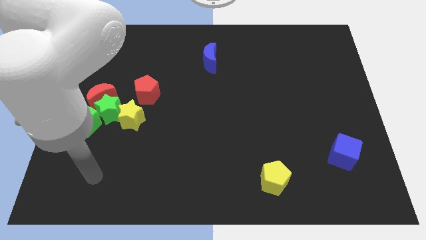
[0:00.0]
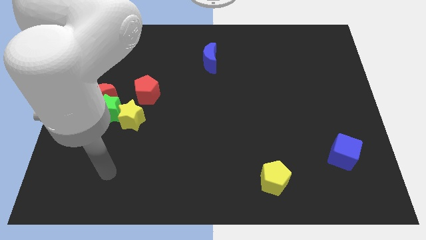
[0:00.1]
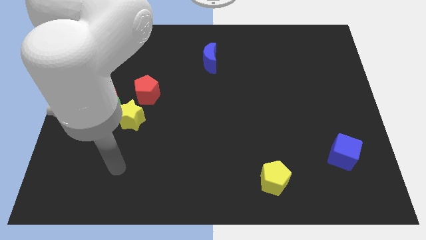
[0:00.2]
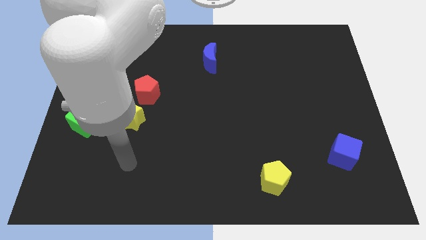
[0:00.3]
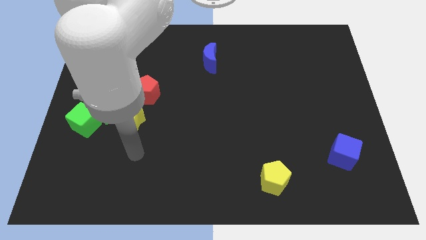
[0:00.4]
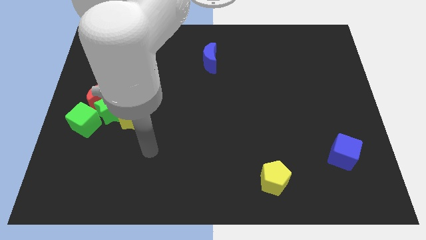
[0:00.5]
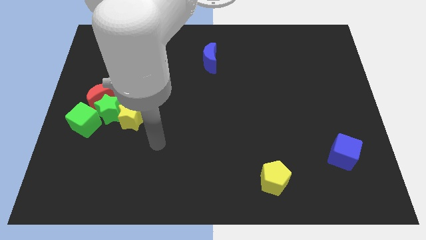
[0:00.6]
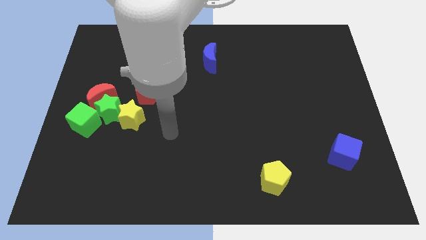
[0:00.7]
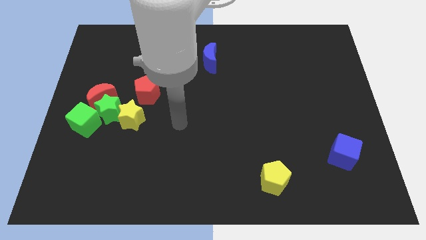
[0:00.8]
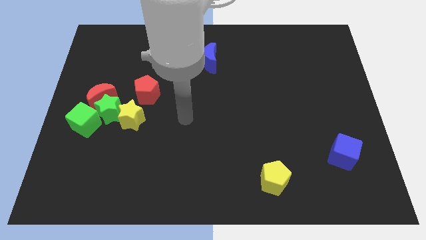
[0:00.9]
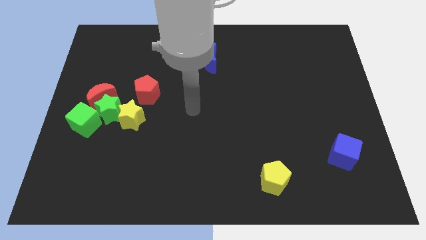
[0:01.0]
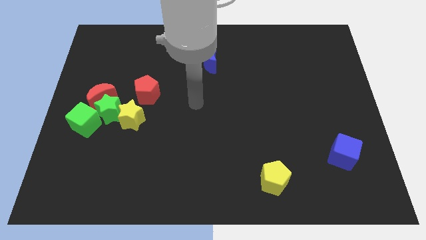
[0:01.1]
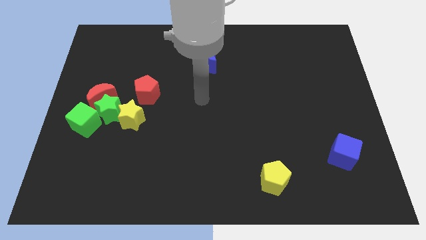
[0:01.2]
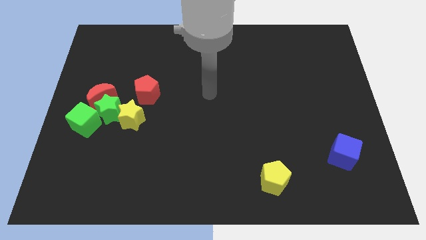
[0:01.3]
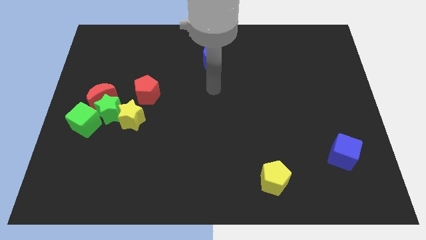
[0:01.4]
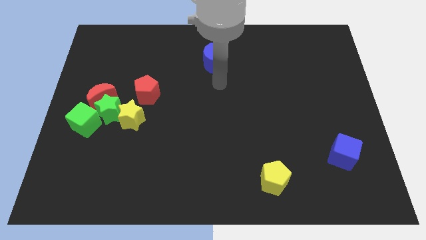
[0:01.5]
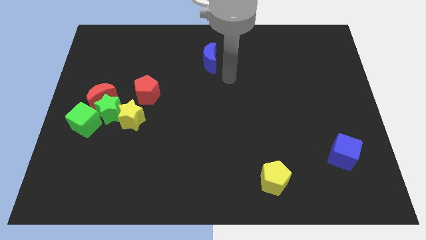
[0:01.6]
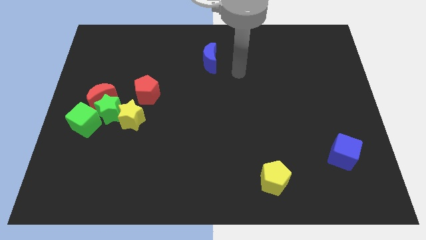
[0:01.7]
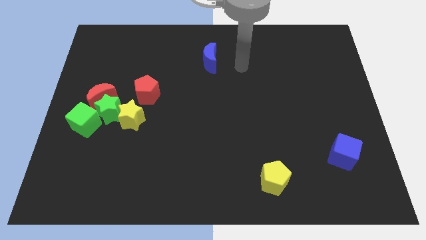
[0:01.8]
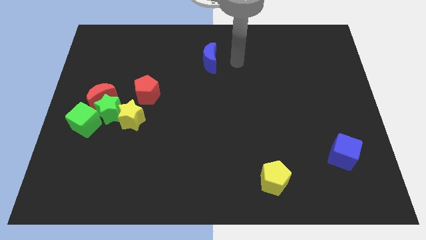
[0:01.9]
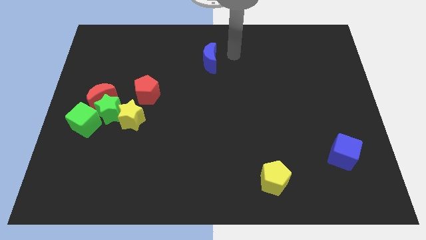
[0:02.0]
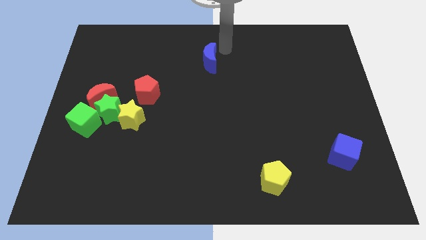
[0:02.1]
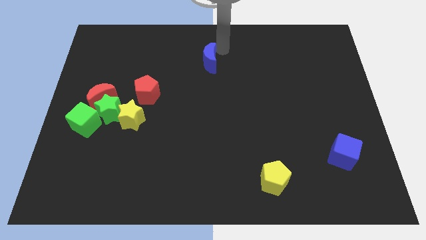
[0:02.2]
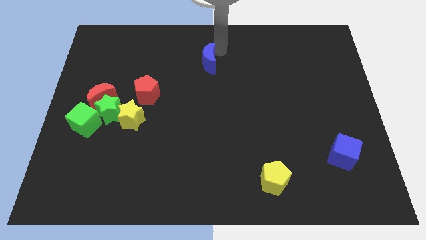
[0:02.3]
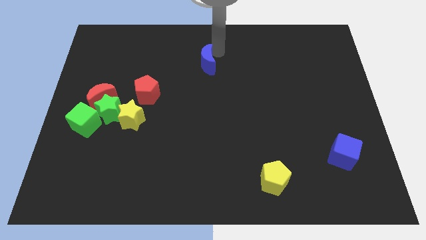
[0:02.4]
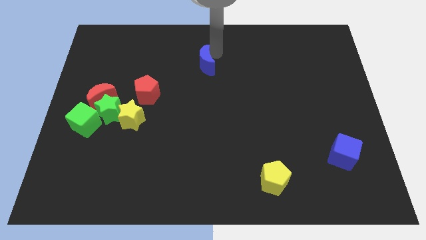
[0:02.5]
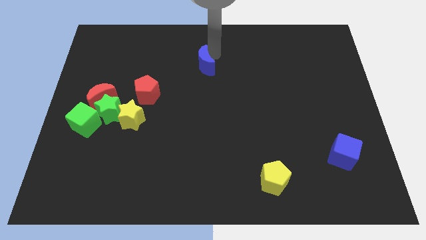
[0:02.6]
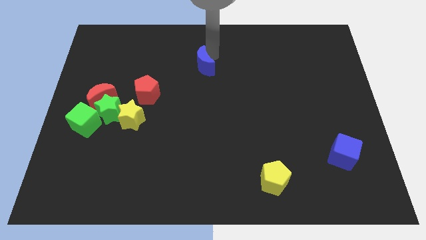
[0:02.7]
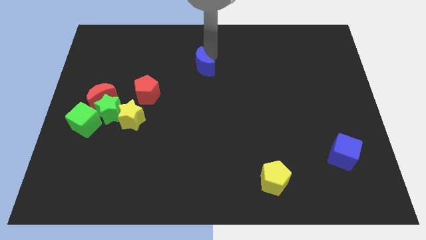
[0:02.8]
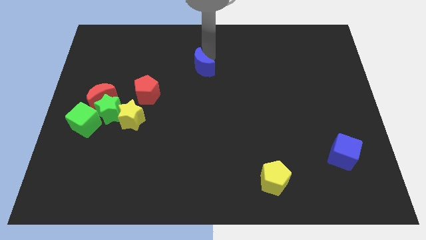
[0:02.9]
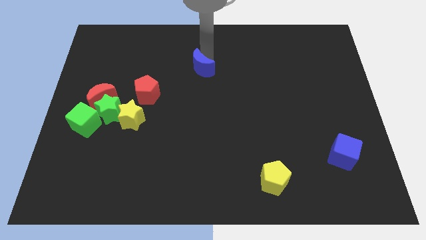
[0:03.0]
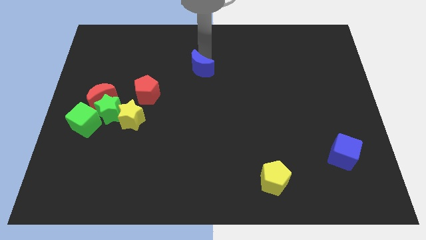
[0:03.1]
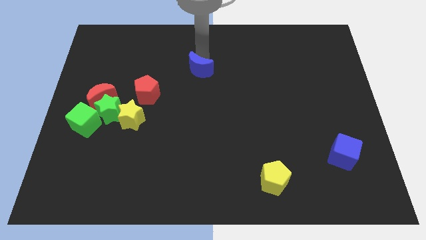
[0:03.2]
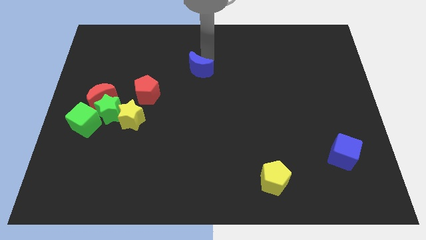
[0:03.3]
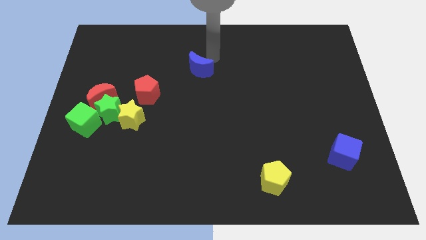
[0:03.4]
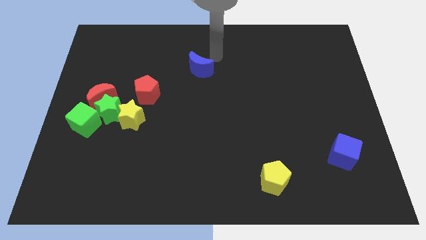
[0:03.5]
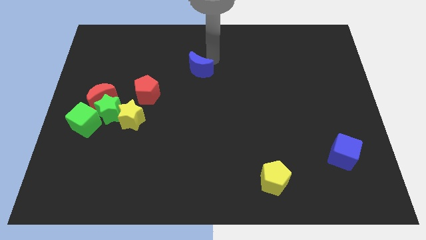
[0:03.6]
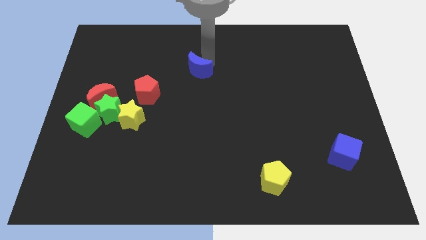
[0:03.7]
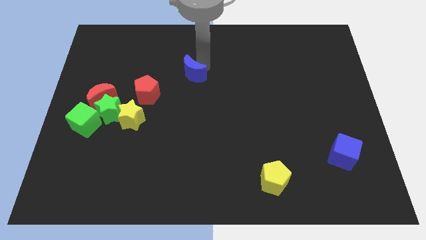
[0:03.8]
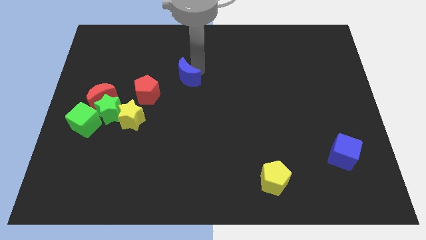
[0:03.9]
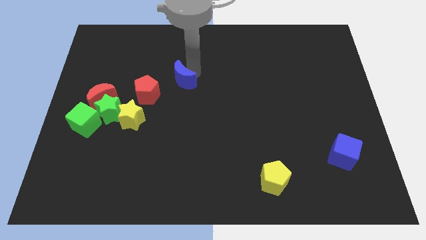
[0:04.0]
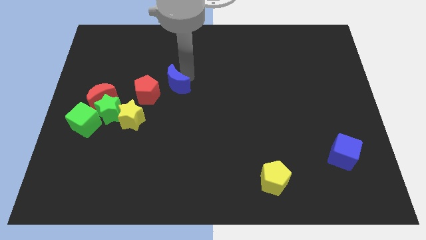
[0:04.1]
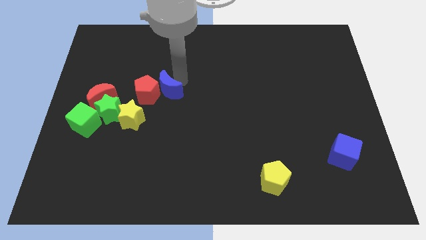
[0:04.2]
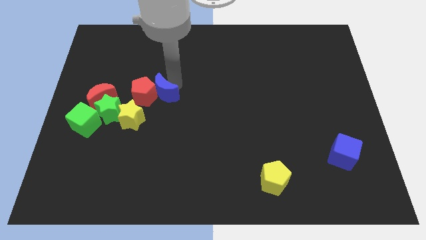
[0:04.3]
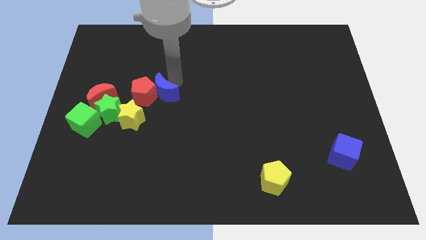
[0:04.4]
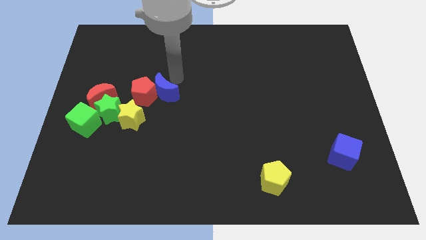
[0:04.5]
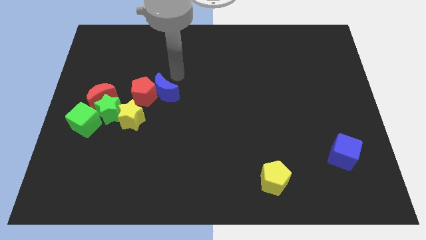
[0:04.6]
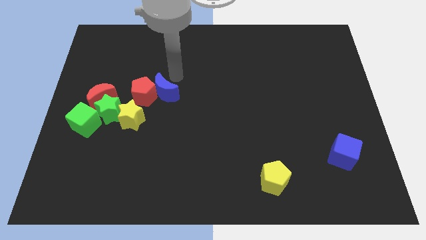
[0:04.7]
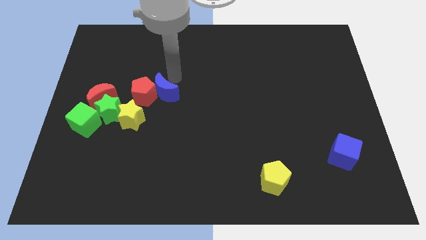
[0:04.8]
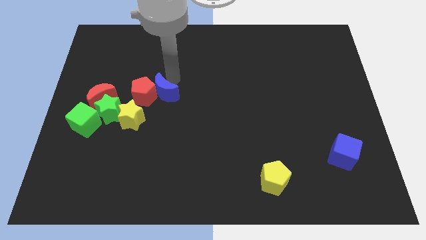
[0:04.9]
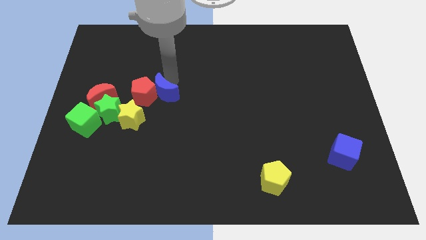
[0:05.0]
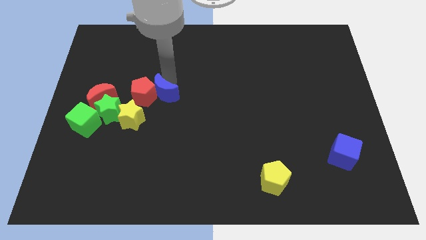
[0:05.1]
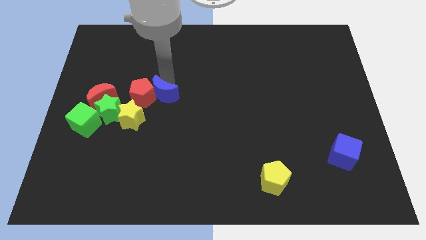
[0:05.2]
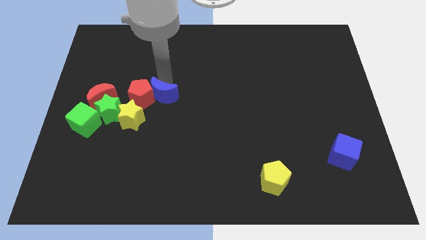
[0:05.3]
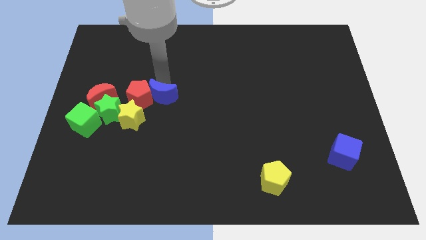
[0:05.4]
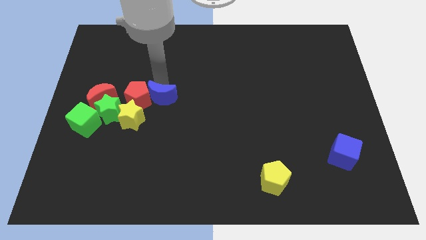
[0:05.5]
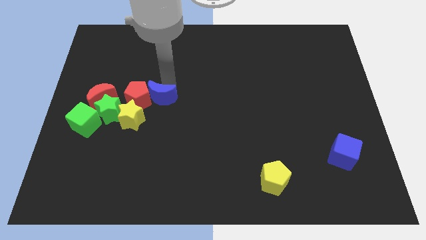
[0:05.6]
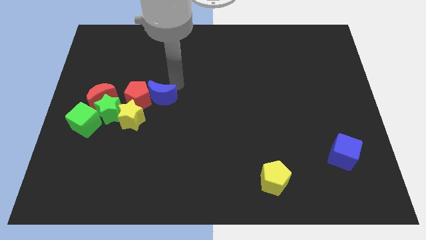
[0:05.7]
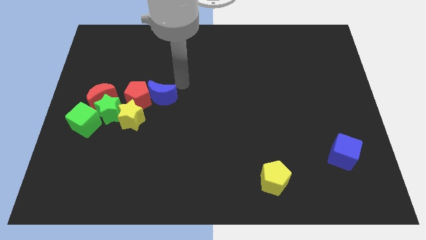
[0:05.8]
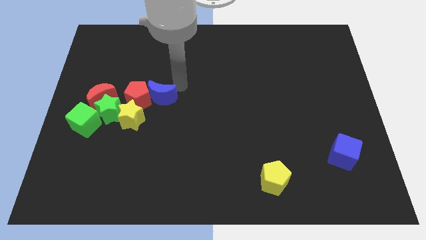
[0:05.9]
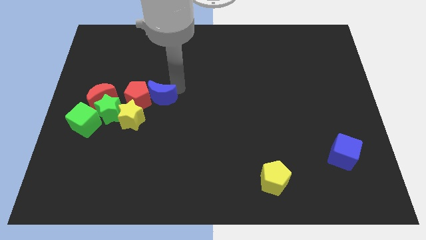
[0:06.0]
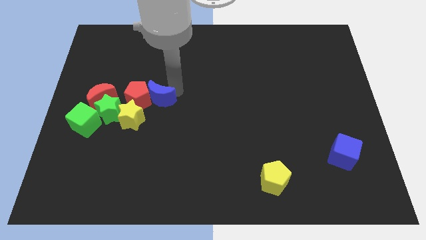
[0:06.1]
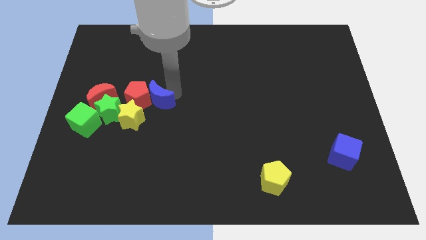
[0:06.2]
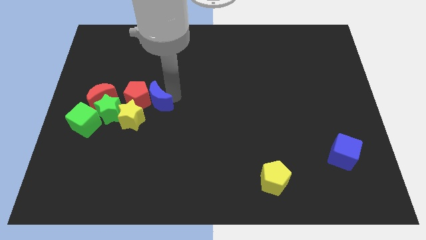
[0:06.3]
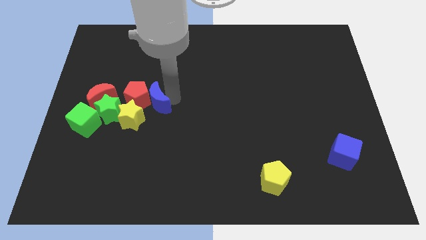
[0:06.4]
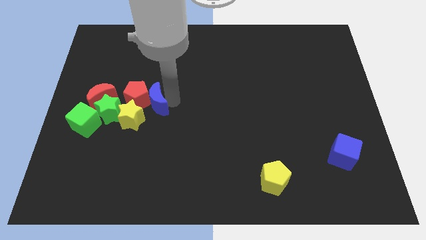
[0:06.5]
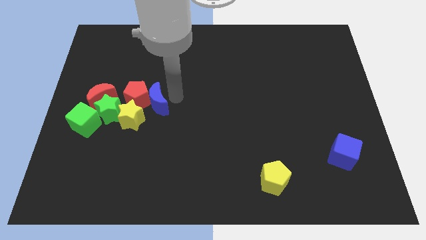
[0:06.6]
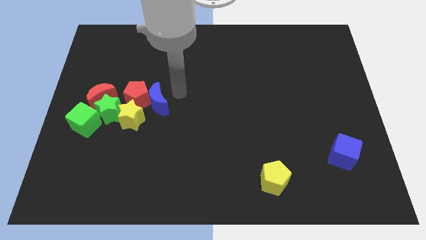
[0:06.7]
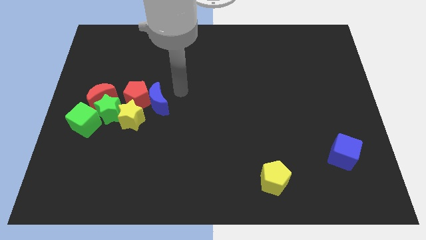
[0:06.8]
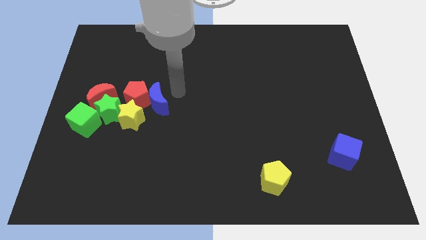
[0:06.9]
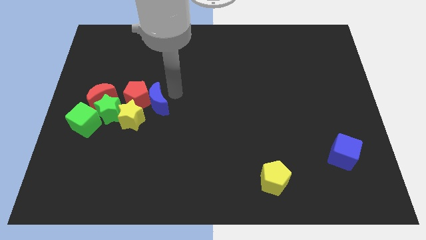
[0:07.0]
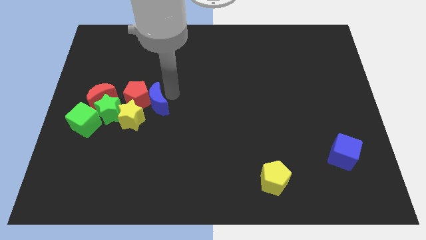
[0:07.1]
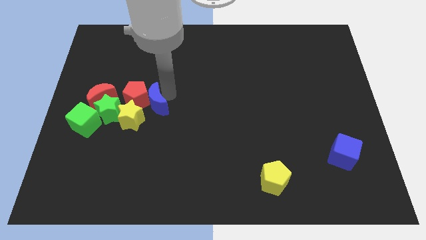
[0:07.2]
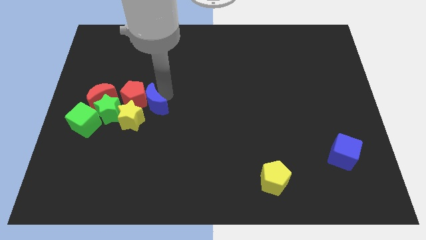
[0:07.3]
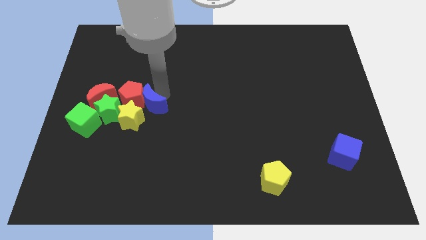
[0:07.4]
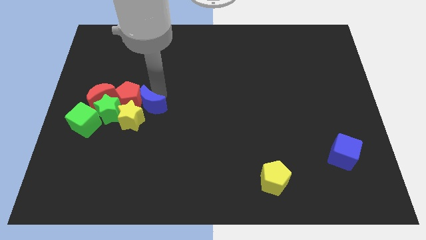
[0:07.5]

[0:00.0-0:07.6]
put the blue moon towards the yellow star
